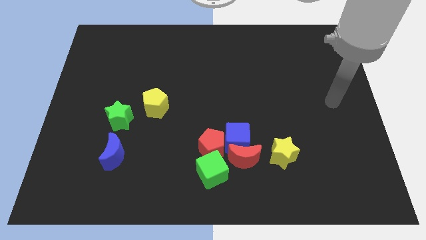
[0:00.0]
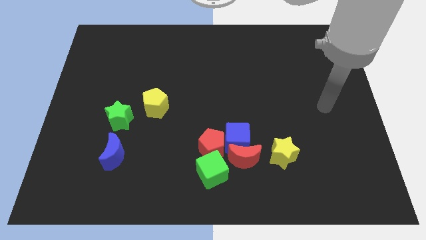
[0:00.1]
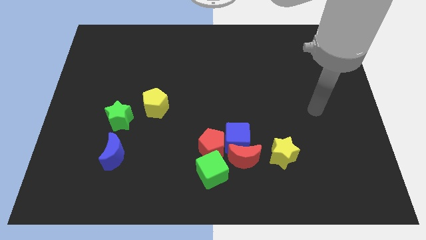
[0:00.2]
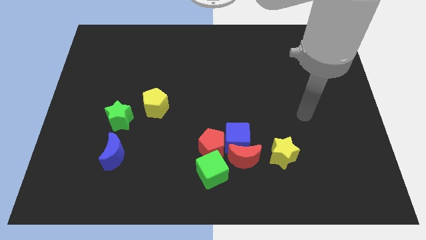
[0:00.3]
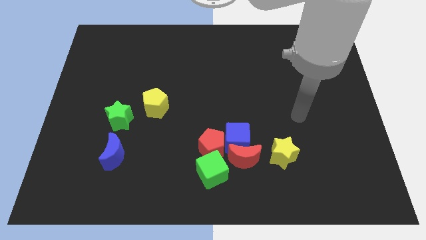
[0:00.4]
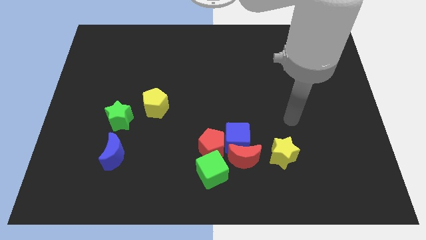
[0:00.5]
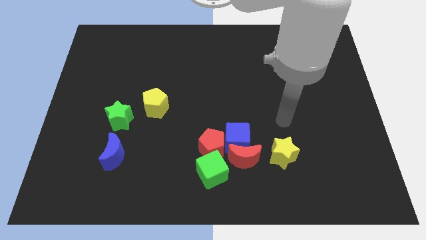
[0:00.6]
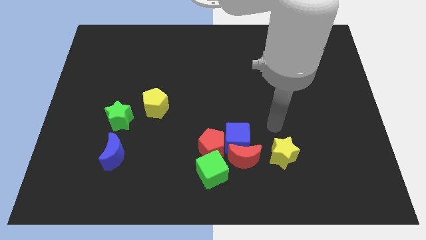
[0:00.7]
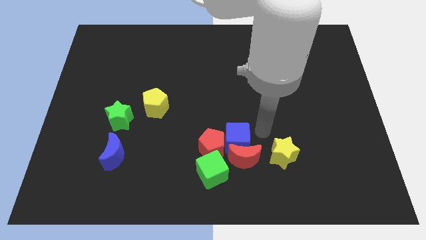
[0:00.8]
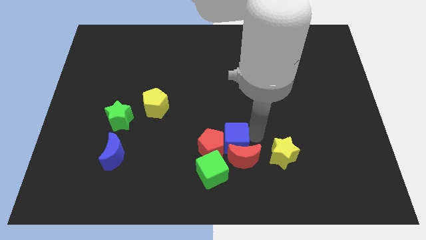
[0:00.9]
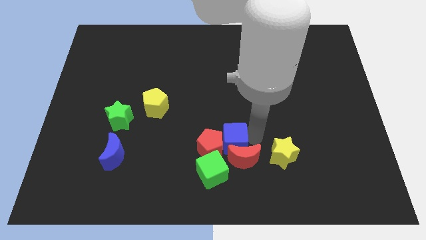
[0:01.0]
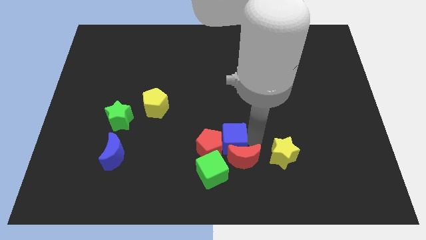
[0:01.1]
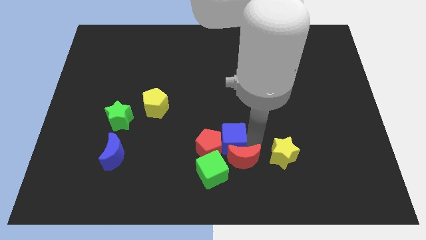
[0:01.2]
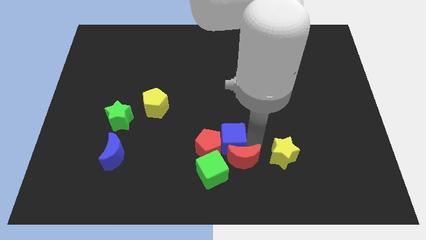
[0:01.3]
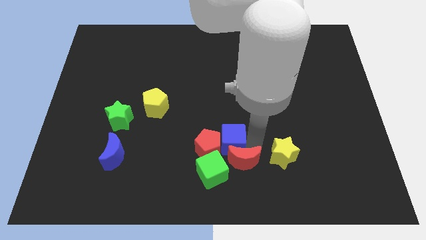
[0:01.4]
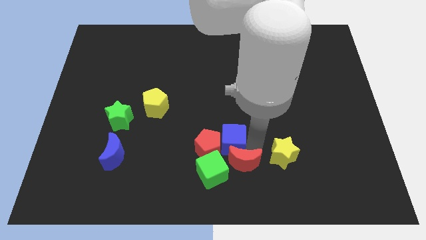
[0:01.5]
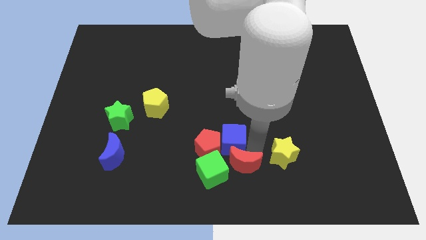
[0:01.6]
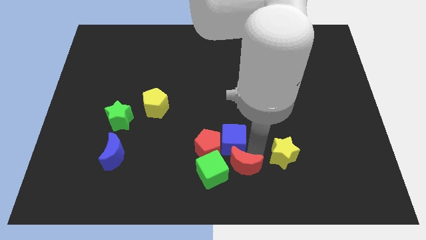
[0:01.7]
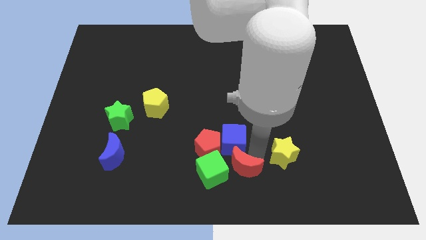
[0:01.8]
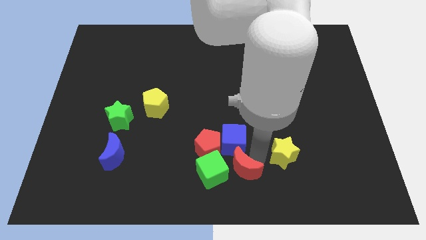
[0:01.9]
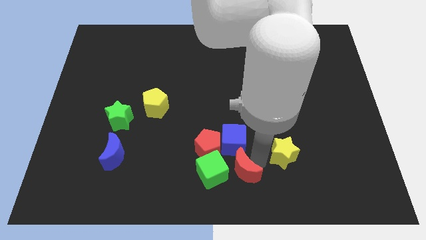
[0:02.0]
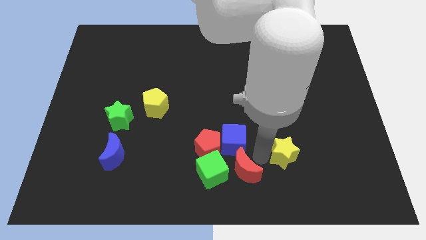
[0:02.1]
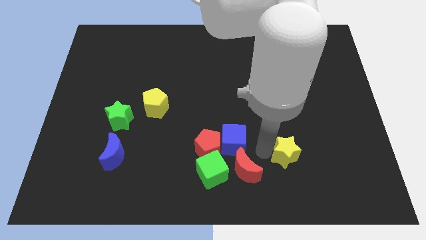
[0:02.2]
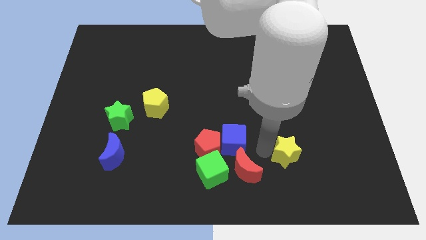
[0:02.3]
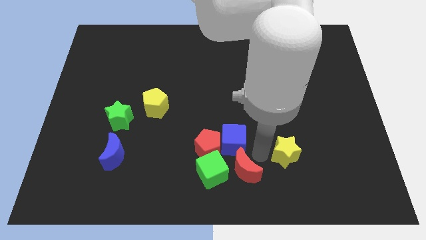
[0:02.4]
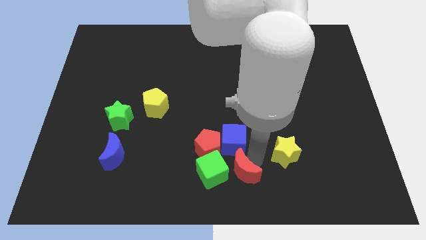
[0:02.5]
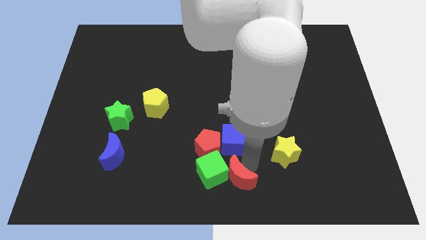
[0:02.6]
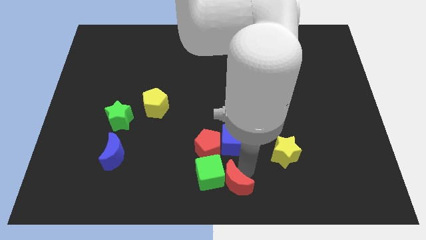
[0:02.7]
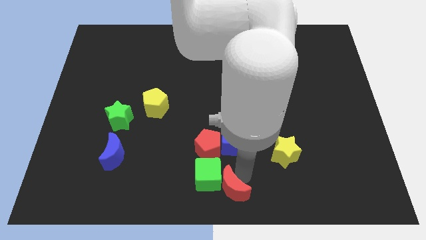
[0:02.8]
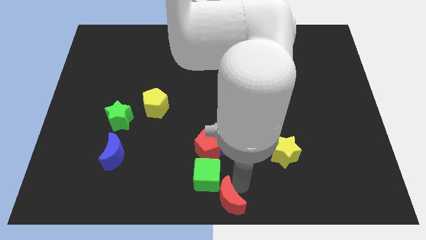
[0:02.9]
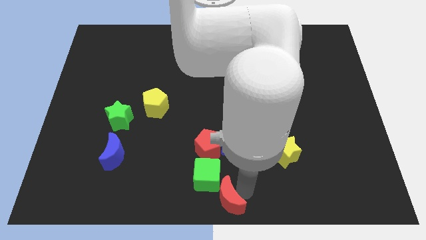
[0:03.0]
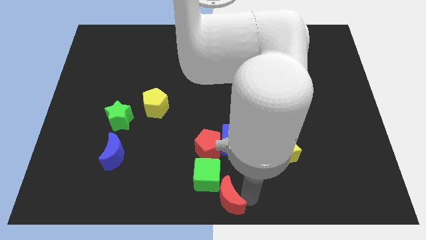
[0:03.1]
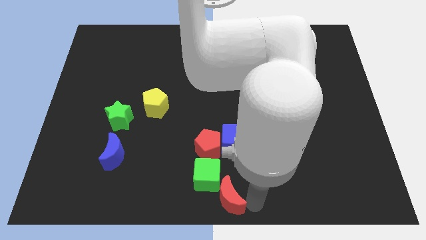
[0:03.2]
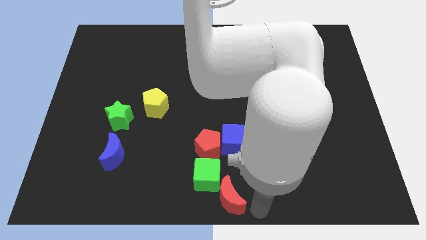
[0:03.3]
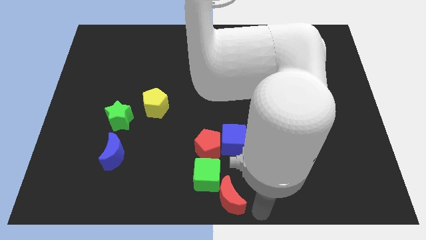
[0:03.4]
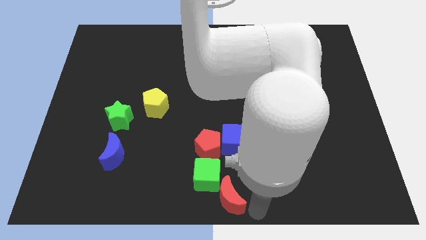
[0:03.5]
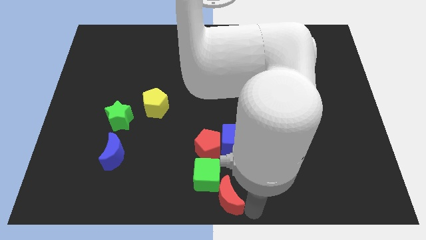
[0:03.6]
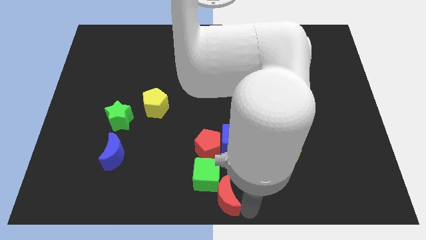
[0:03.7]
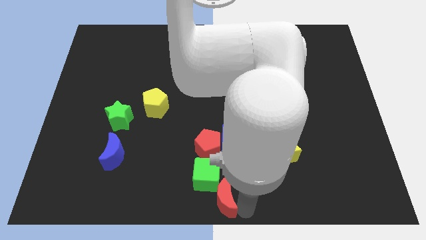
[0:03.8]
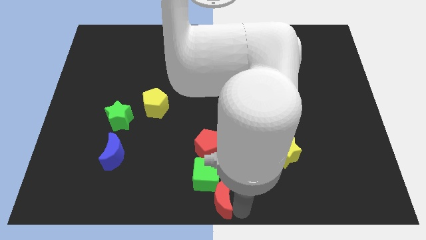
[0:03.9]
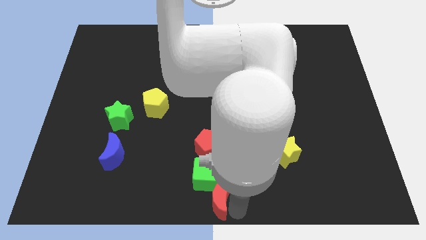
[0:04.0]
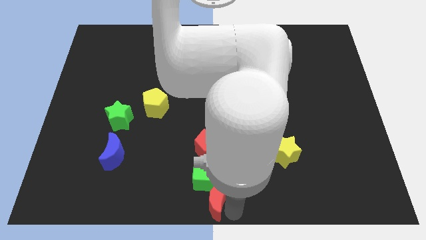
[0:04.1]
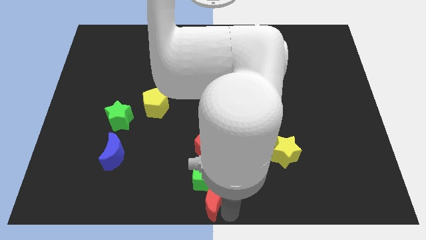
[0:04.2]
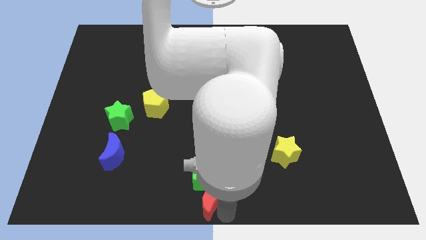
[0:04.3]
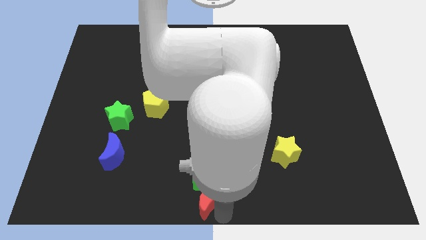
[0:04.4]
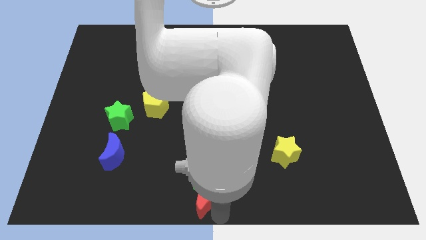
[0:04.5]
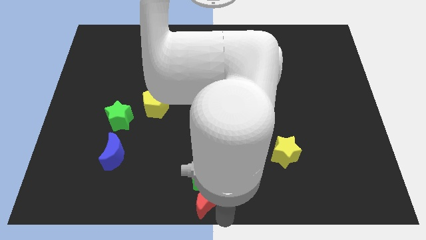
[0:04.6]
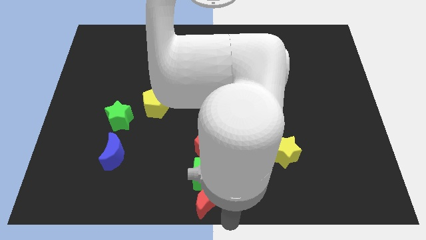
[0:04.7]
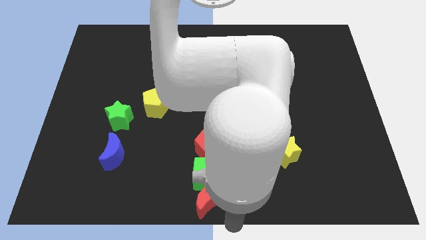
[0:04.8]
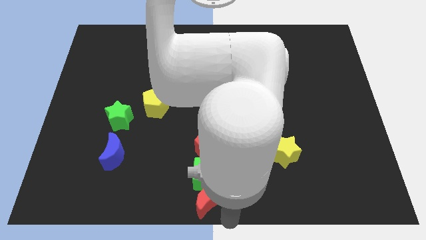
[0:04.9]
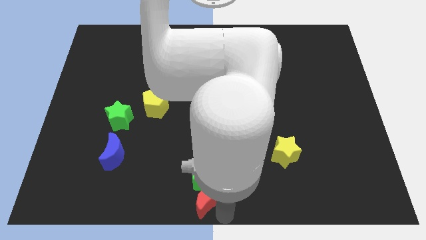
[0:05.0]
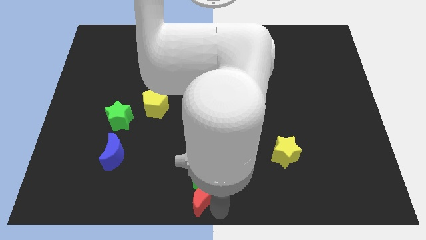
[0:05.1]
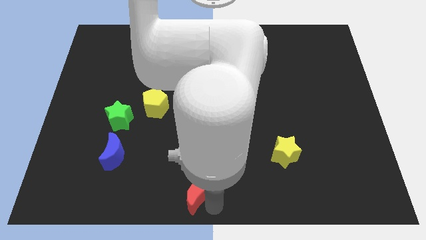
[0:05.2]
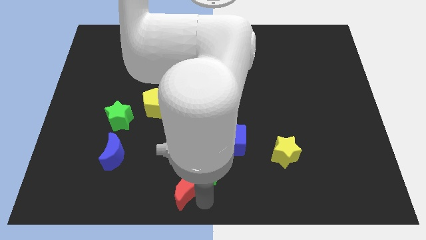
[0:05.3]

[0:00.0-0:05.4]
slide the red moon slightly left

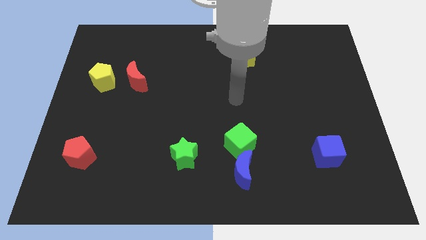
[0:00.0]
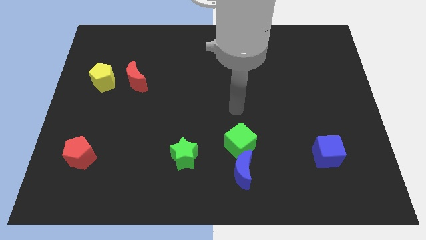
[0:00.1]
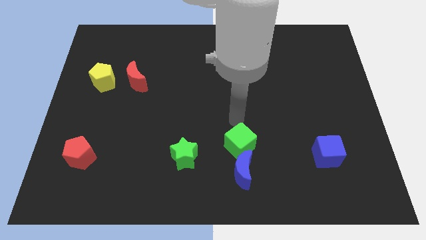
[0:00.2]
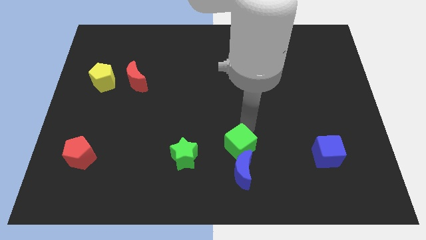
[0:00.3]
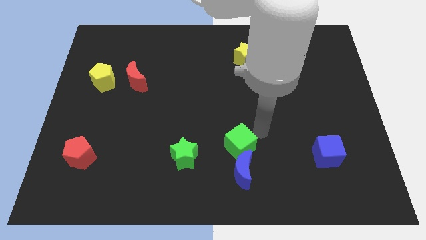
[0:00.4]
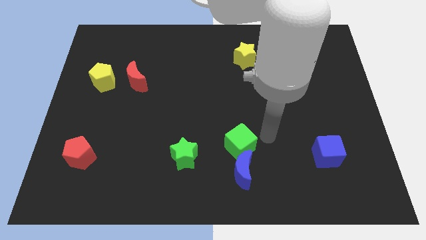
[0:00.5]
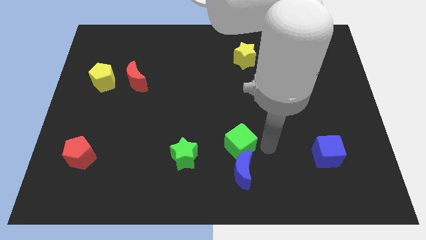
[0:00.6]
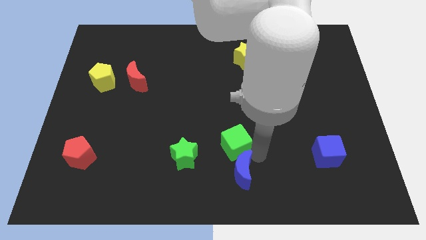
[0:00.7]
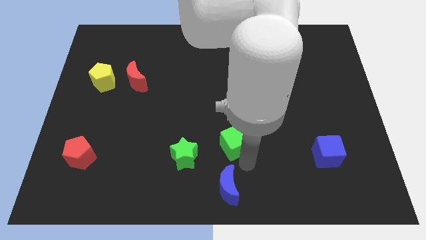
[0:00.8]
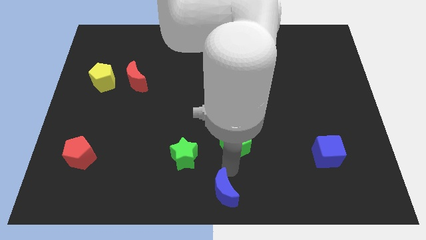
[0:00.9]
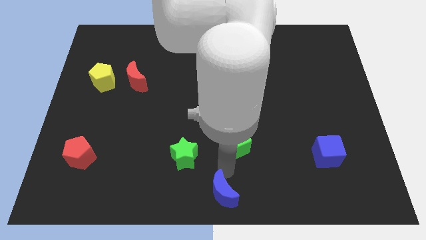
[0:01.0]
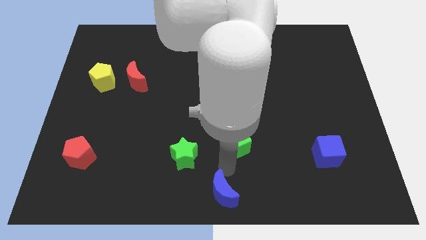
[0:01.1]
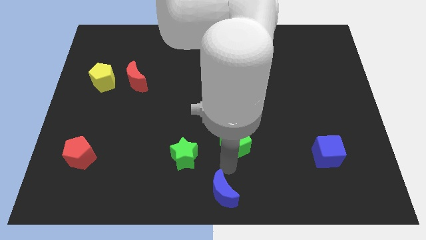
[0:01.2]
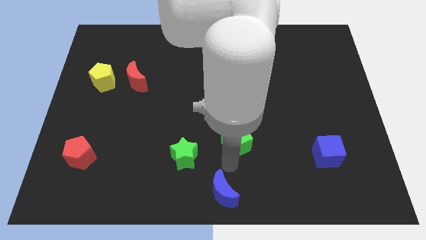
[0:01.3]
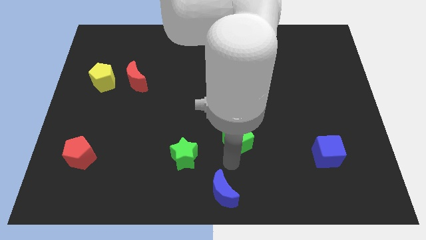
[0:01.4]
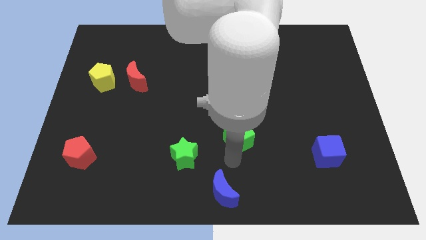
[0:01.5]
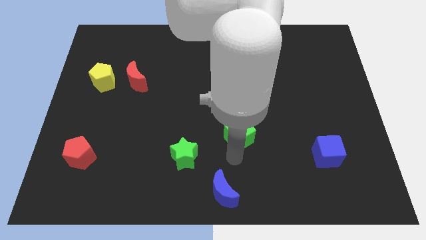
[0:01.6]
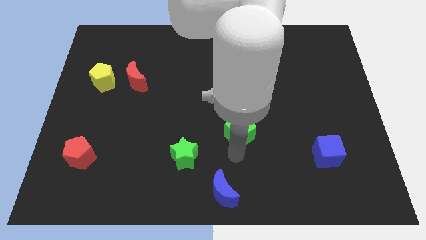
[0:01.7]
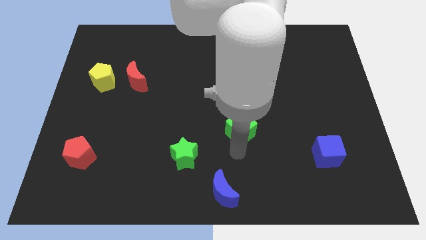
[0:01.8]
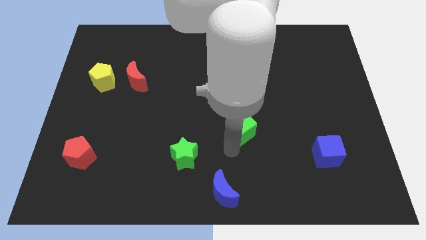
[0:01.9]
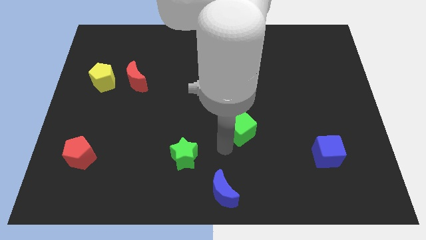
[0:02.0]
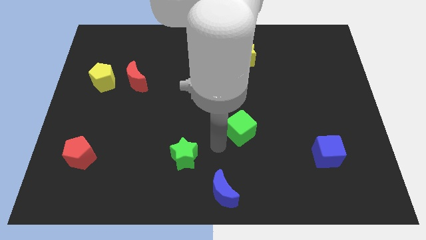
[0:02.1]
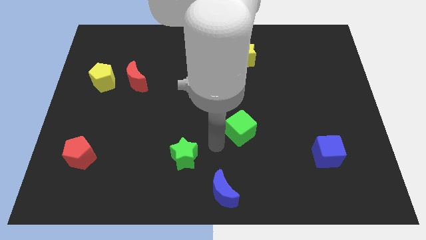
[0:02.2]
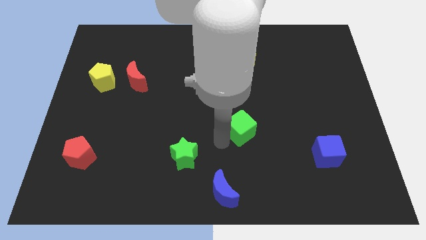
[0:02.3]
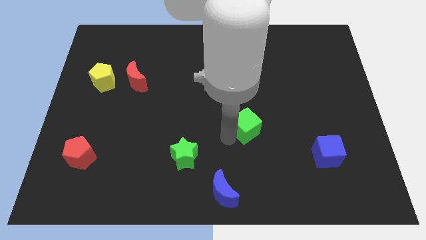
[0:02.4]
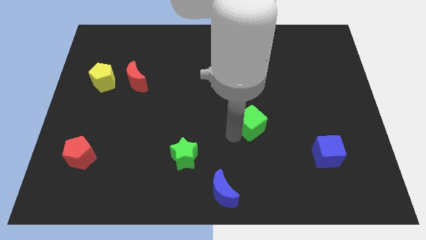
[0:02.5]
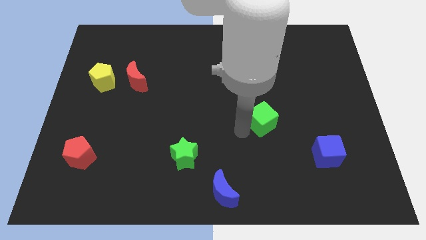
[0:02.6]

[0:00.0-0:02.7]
slide the green cube up and then to the right somewhat
